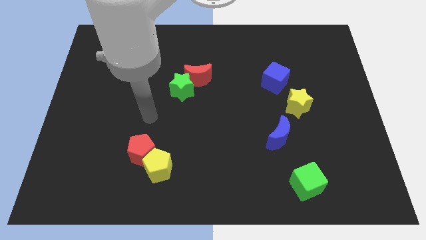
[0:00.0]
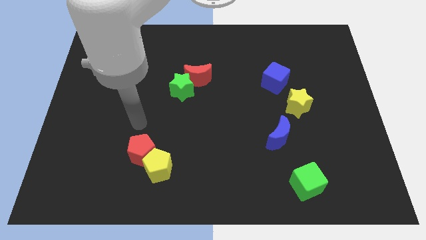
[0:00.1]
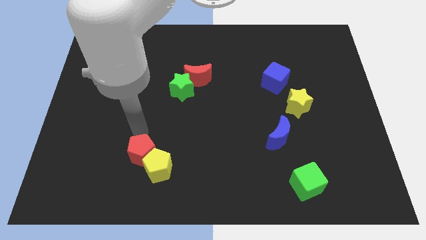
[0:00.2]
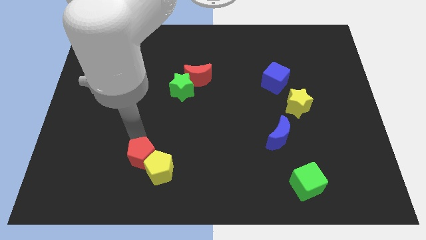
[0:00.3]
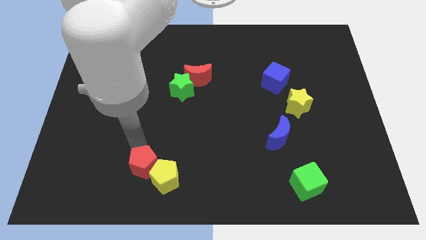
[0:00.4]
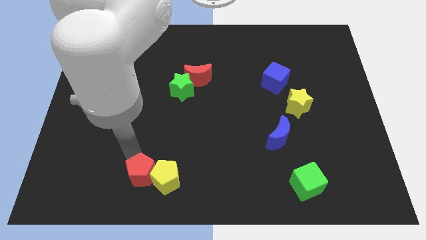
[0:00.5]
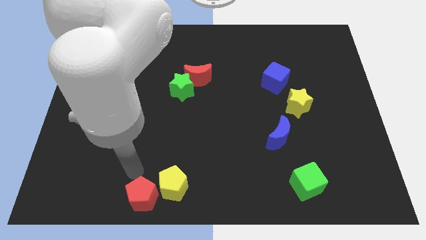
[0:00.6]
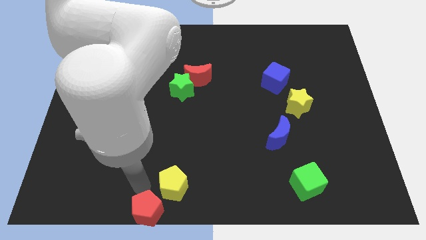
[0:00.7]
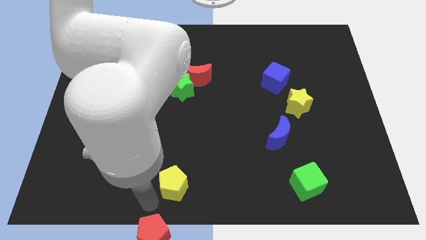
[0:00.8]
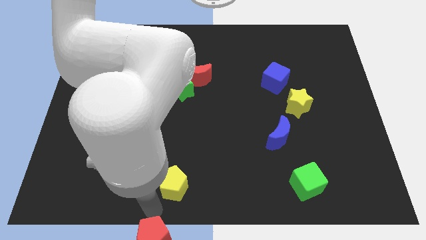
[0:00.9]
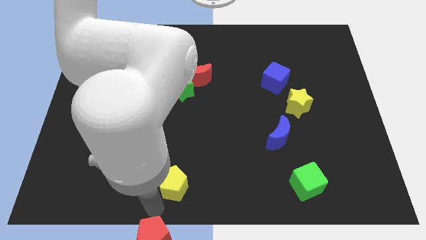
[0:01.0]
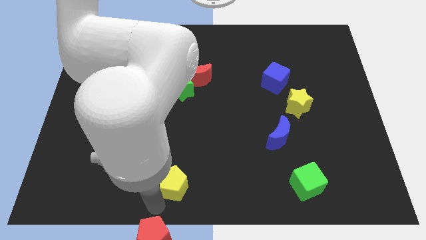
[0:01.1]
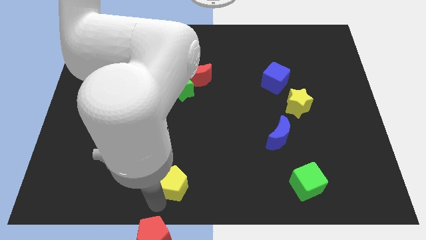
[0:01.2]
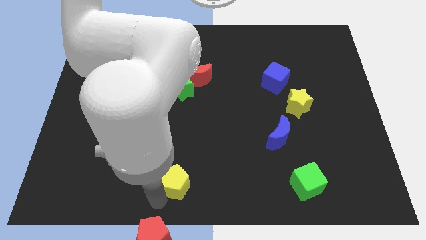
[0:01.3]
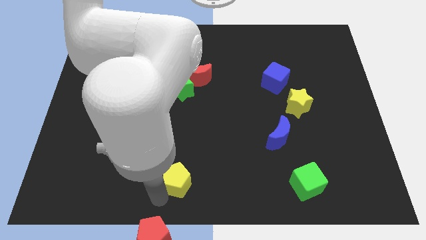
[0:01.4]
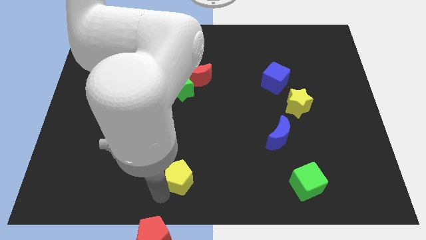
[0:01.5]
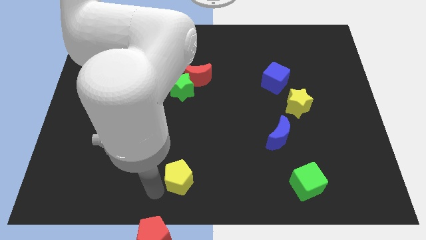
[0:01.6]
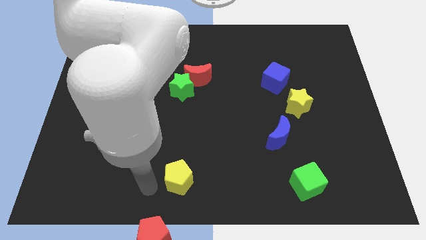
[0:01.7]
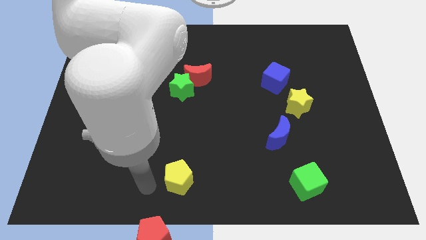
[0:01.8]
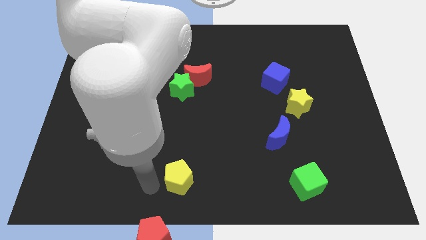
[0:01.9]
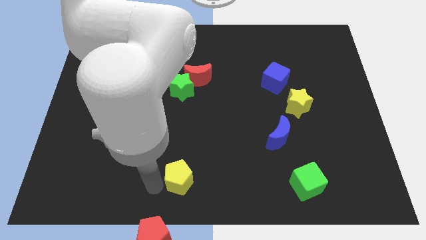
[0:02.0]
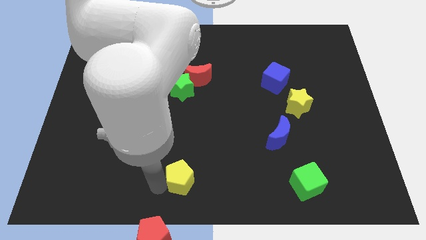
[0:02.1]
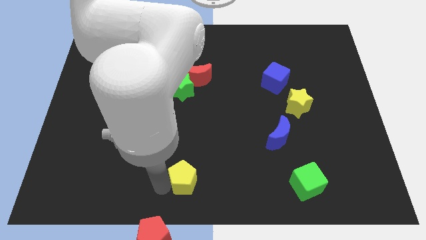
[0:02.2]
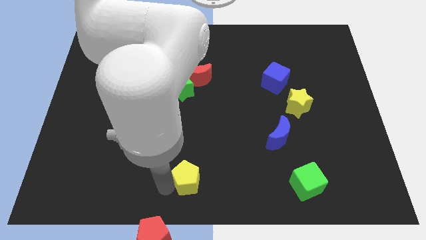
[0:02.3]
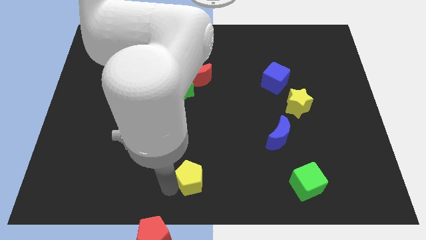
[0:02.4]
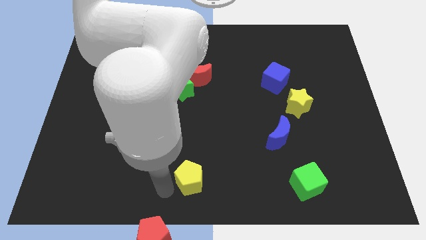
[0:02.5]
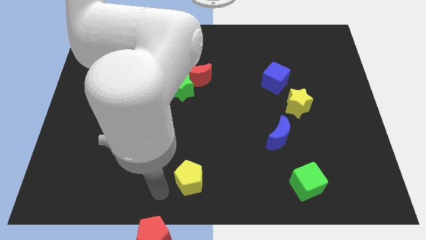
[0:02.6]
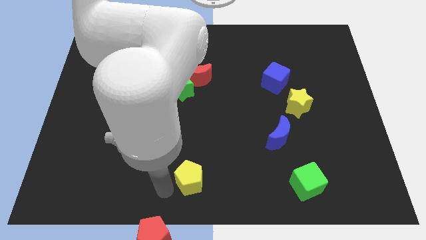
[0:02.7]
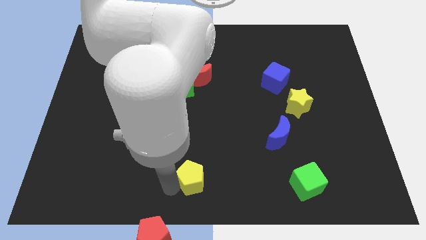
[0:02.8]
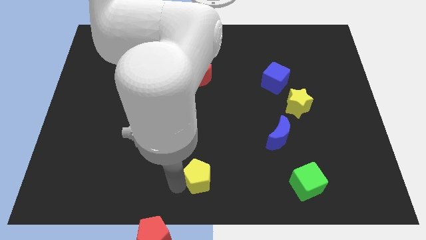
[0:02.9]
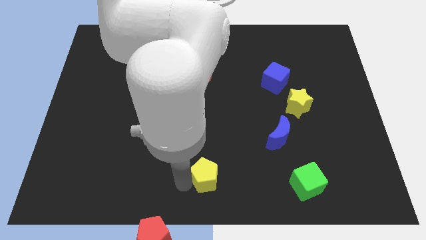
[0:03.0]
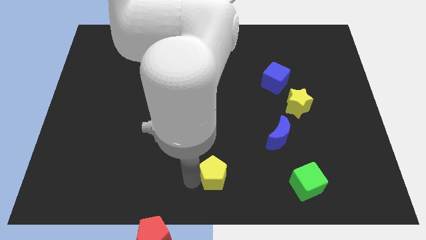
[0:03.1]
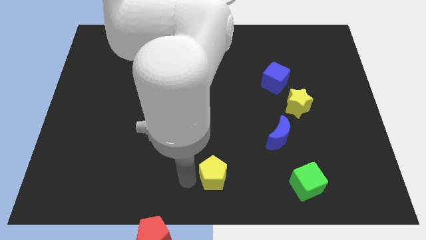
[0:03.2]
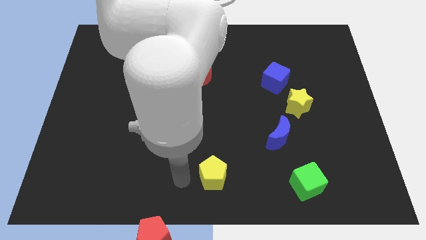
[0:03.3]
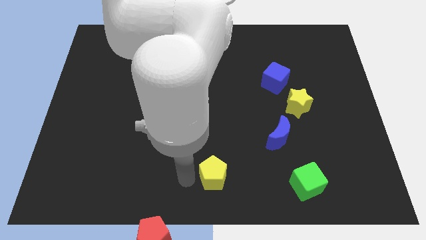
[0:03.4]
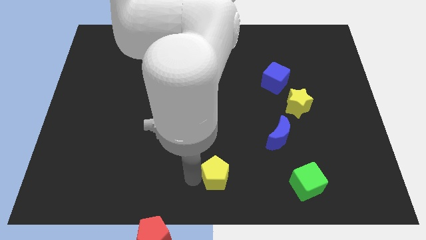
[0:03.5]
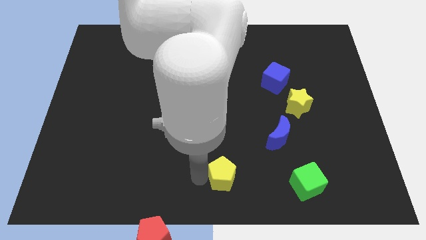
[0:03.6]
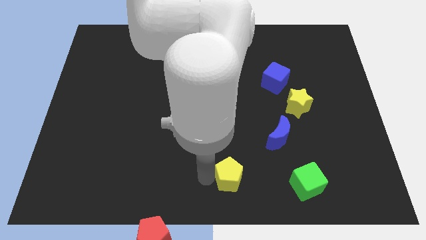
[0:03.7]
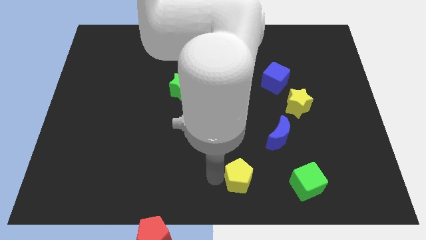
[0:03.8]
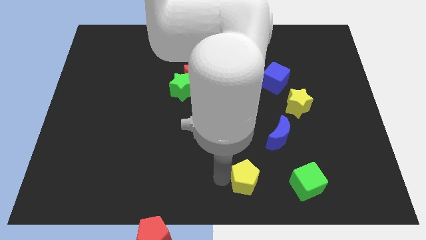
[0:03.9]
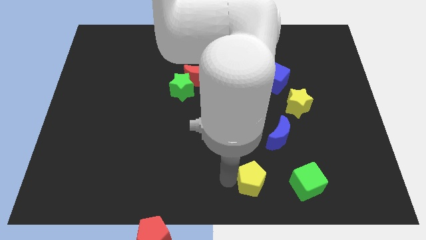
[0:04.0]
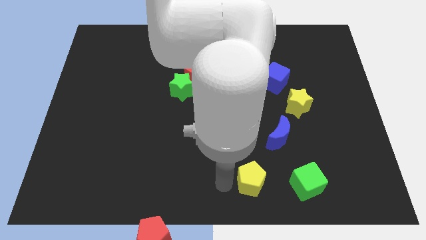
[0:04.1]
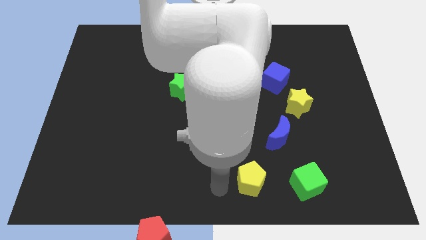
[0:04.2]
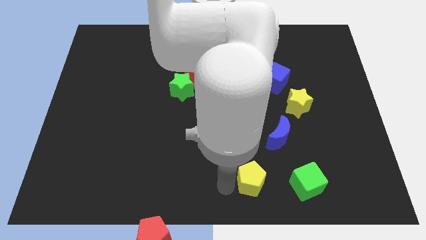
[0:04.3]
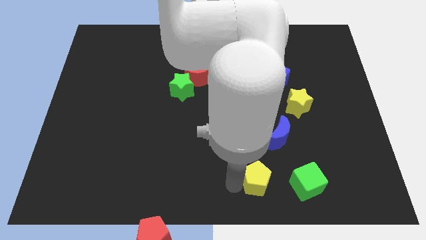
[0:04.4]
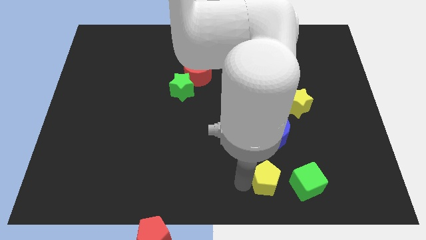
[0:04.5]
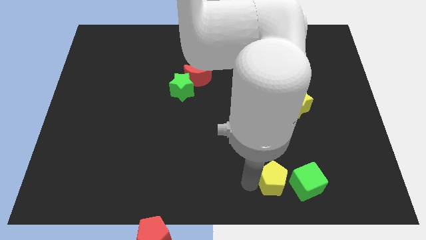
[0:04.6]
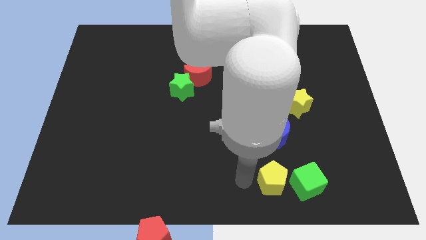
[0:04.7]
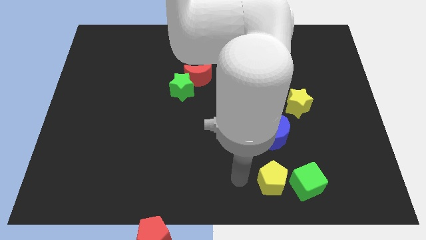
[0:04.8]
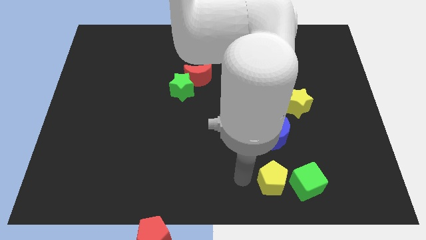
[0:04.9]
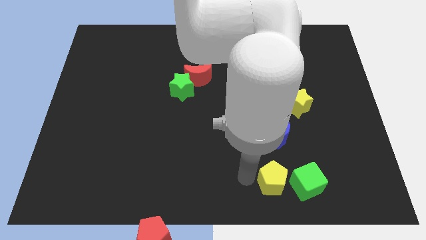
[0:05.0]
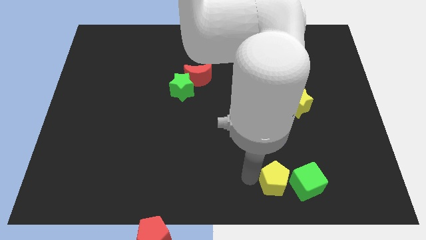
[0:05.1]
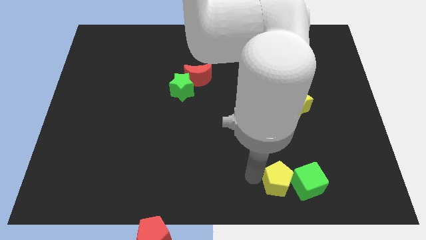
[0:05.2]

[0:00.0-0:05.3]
push the yellow pentagon next to the green cube

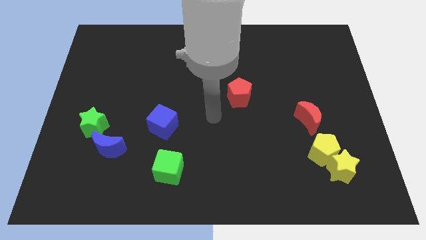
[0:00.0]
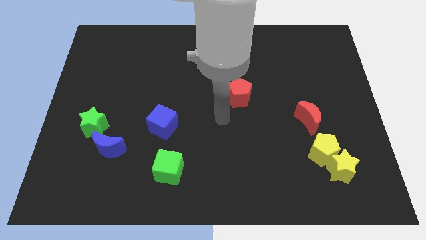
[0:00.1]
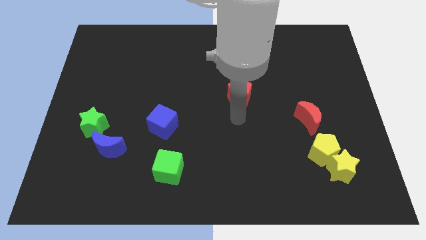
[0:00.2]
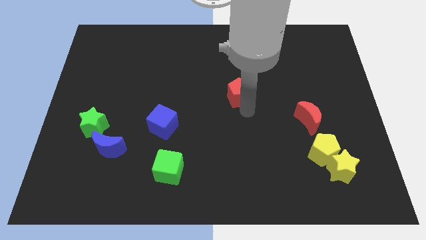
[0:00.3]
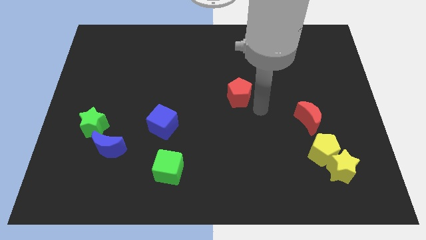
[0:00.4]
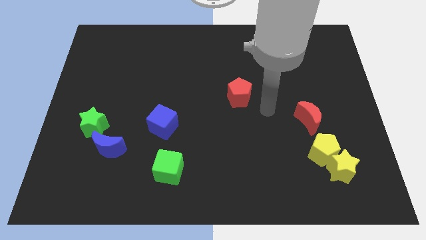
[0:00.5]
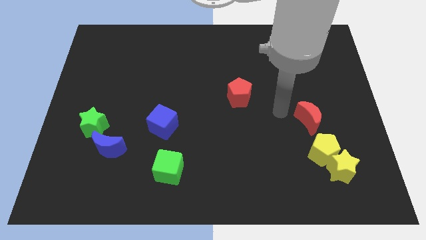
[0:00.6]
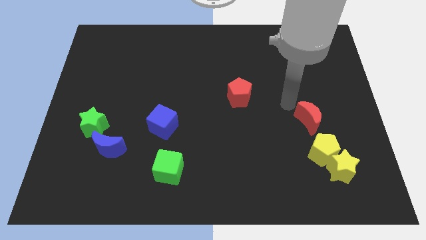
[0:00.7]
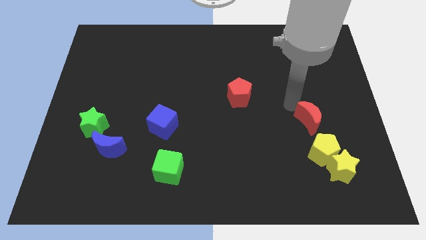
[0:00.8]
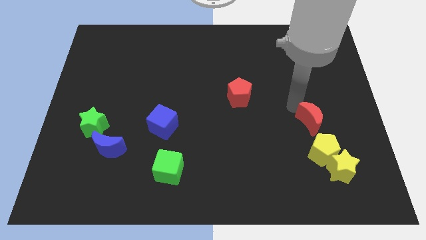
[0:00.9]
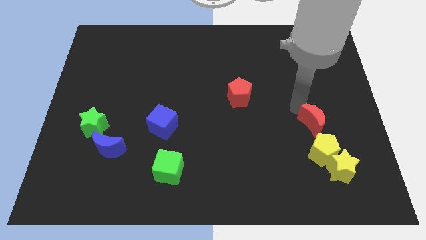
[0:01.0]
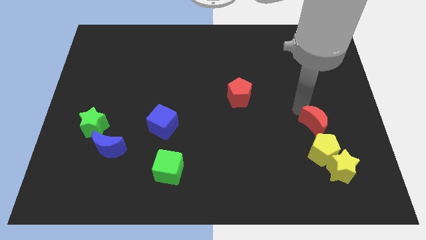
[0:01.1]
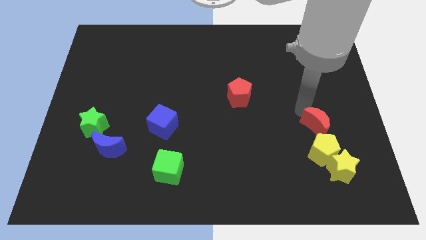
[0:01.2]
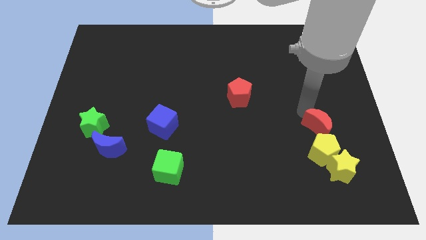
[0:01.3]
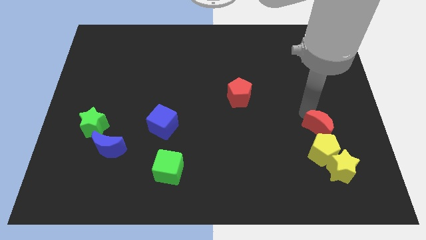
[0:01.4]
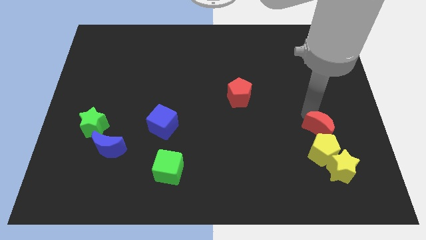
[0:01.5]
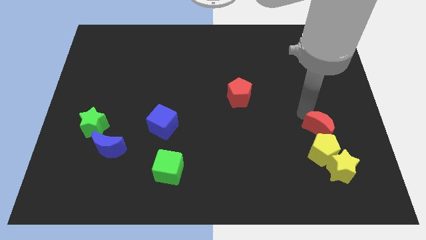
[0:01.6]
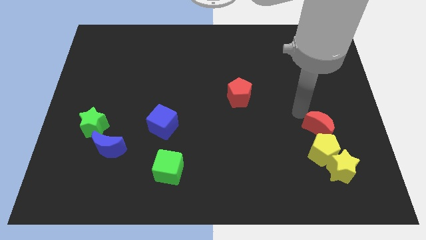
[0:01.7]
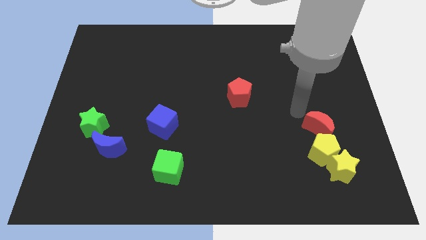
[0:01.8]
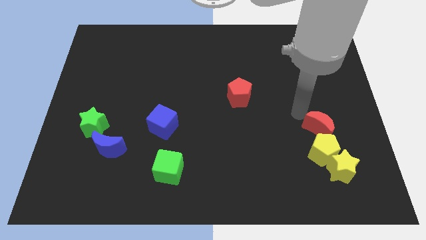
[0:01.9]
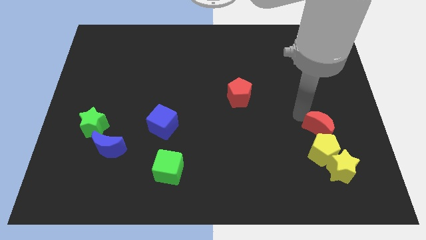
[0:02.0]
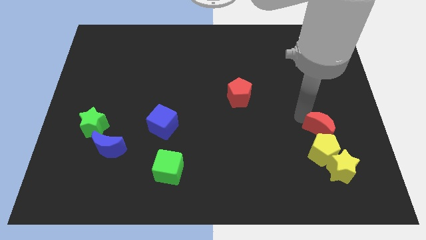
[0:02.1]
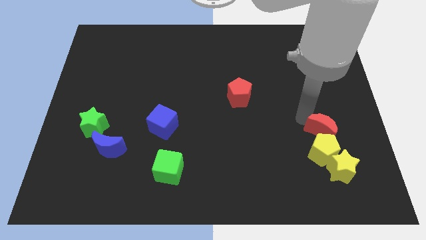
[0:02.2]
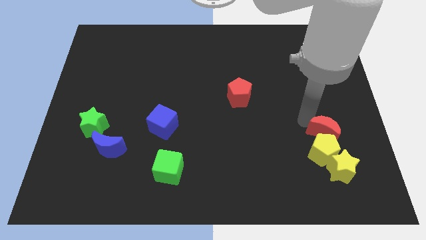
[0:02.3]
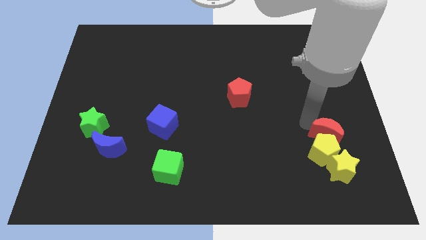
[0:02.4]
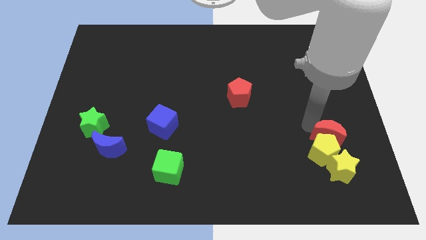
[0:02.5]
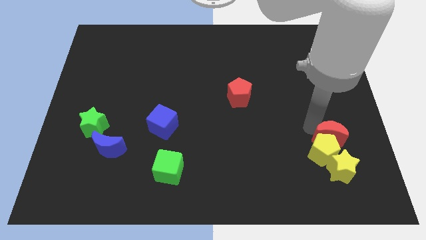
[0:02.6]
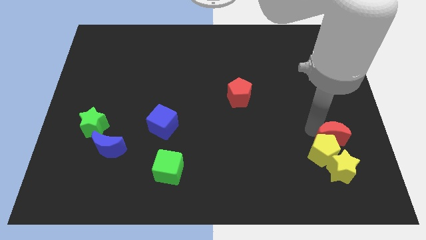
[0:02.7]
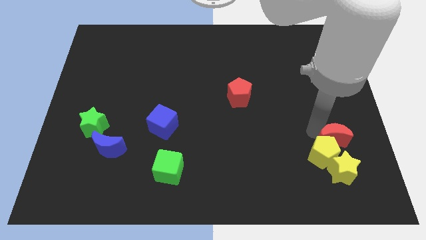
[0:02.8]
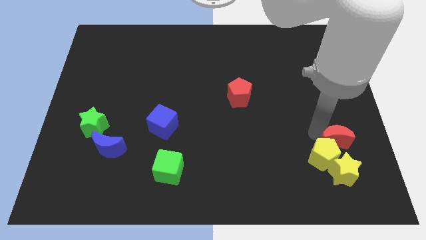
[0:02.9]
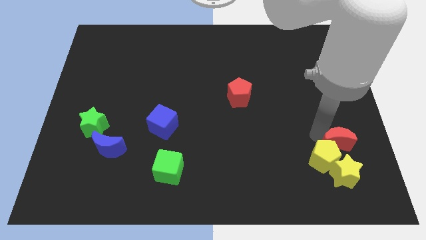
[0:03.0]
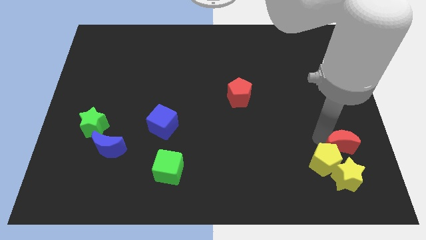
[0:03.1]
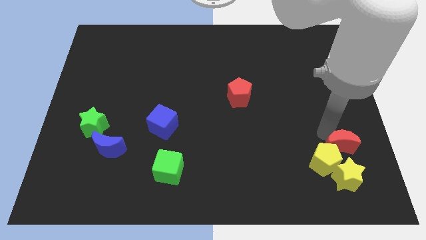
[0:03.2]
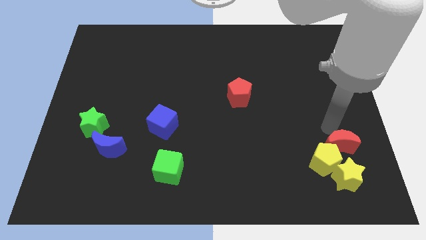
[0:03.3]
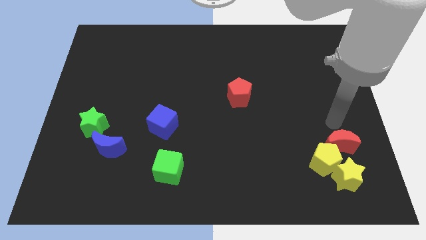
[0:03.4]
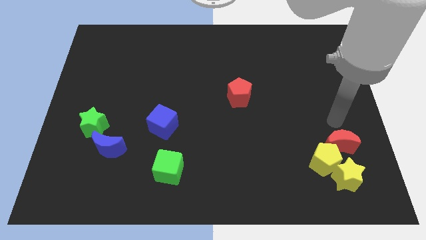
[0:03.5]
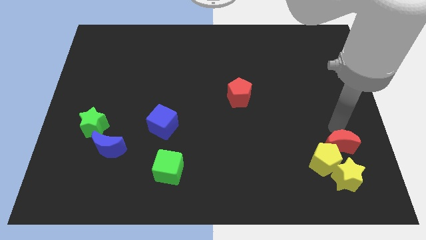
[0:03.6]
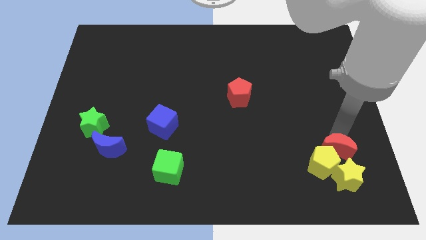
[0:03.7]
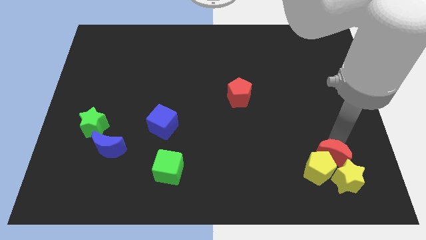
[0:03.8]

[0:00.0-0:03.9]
move the red moon next to the yellow star
